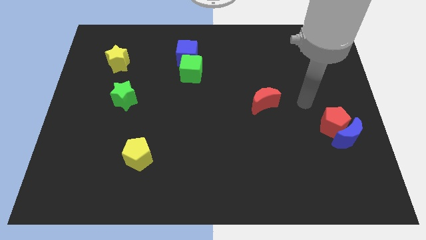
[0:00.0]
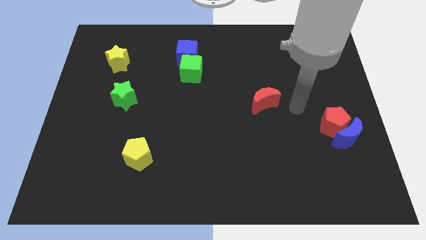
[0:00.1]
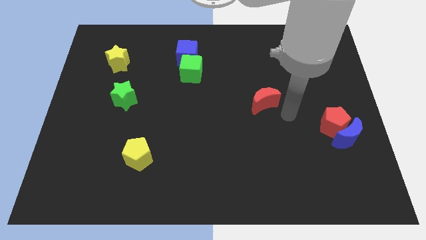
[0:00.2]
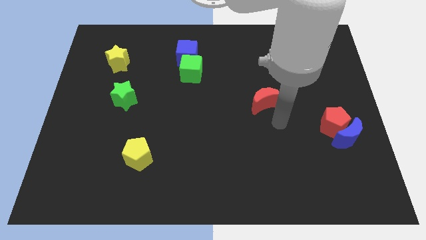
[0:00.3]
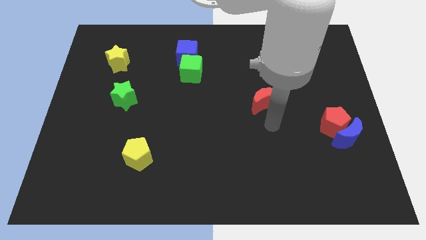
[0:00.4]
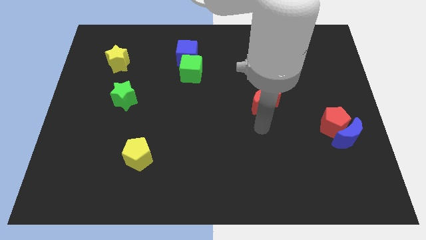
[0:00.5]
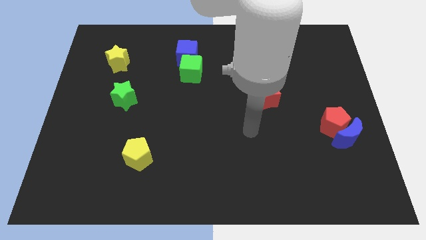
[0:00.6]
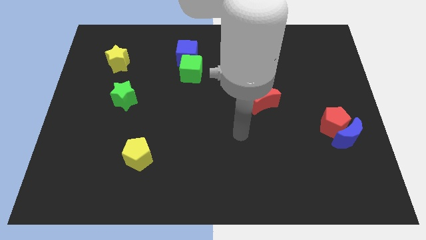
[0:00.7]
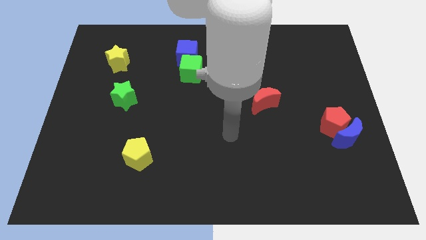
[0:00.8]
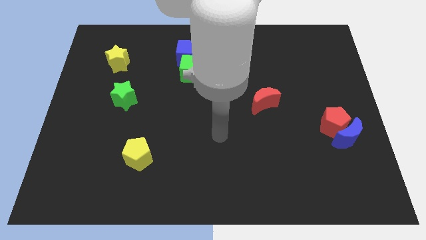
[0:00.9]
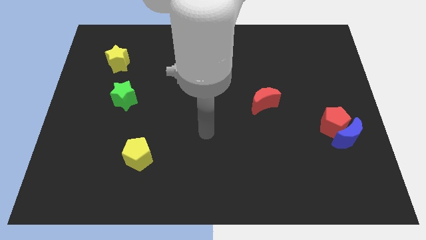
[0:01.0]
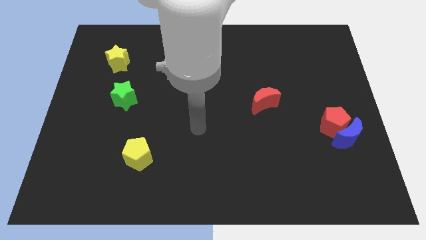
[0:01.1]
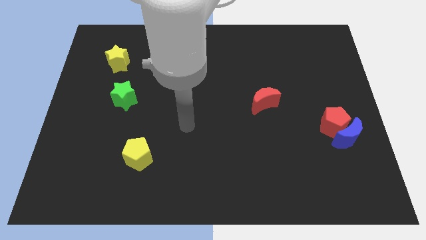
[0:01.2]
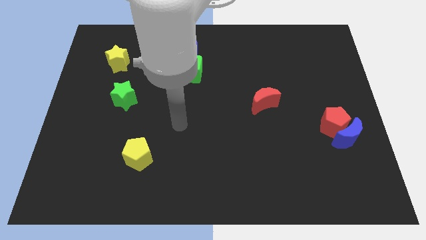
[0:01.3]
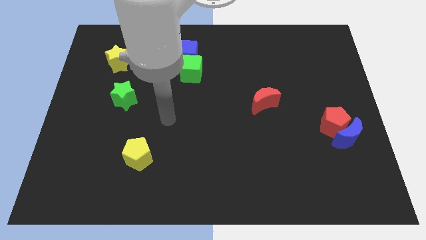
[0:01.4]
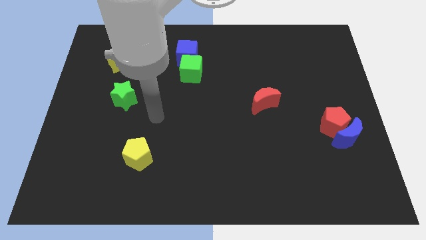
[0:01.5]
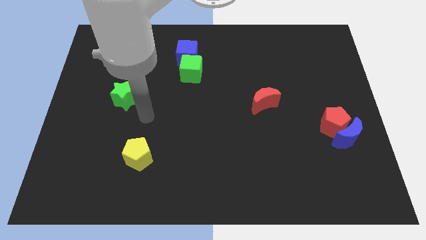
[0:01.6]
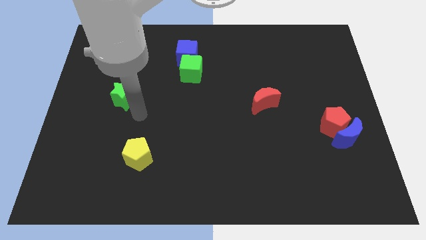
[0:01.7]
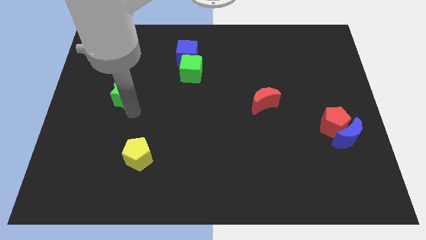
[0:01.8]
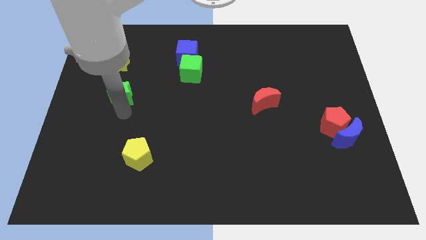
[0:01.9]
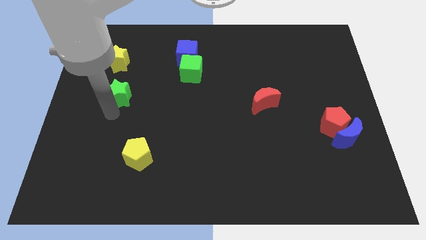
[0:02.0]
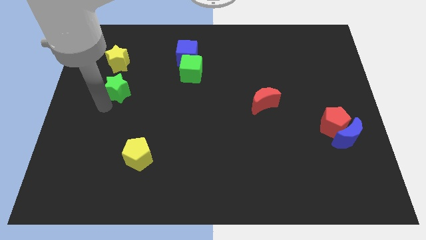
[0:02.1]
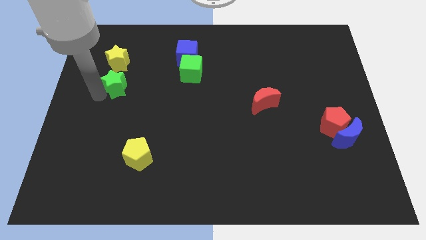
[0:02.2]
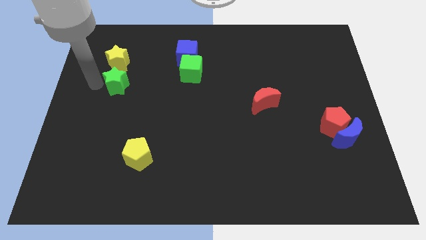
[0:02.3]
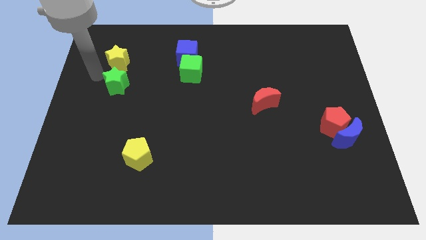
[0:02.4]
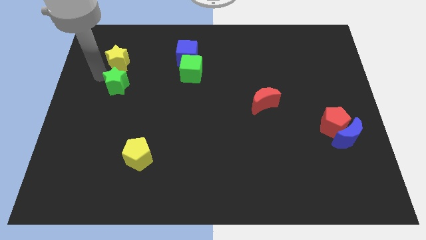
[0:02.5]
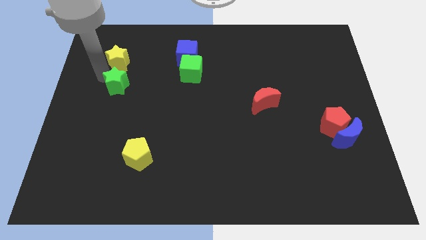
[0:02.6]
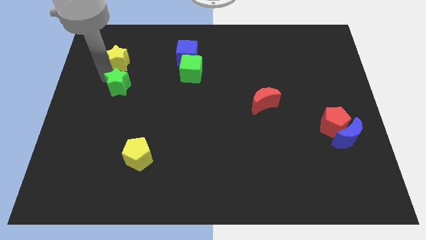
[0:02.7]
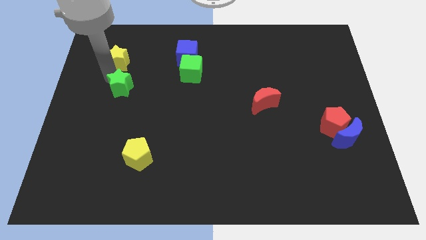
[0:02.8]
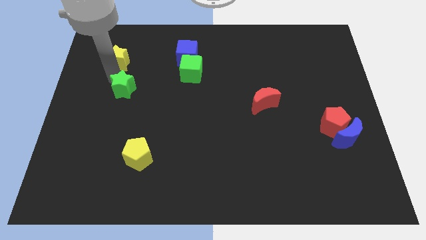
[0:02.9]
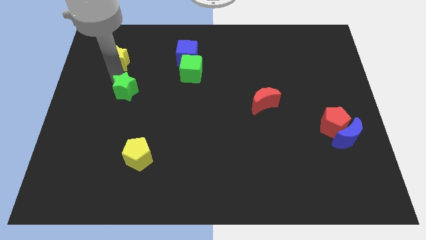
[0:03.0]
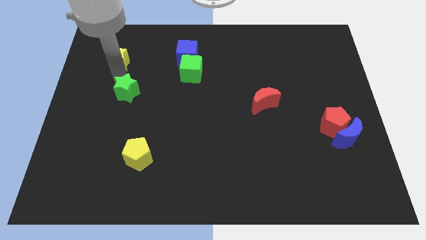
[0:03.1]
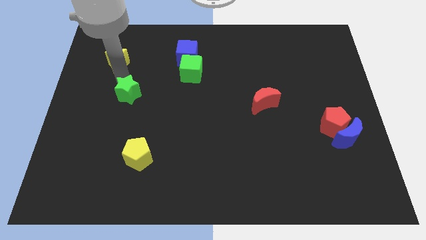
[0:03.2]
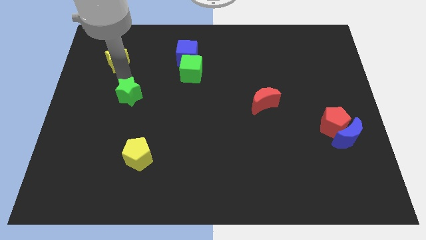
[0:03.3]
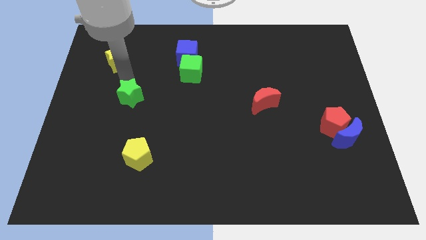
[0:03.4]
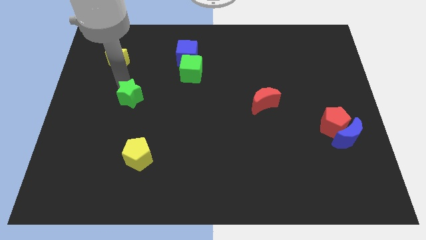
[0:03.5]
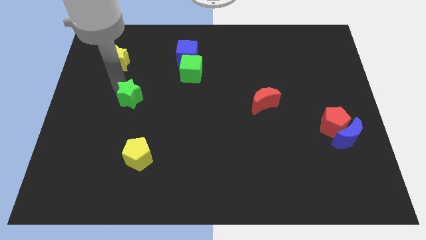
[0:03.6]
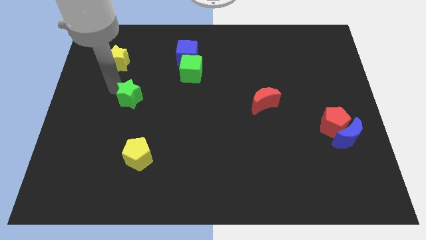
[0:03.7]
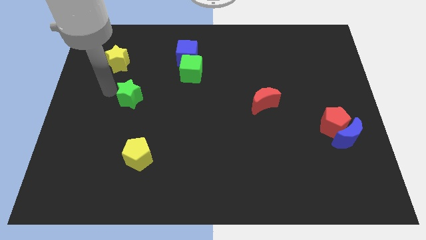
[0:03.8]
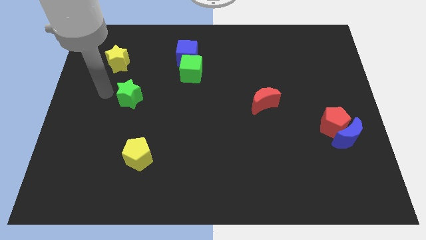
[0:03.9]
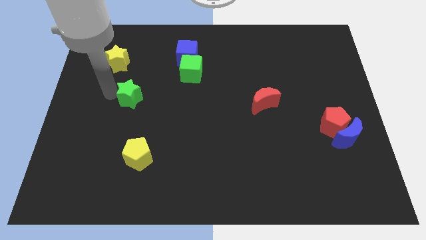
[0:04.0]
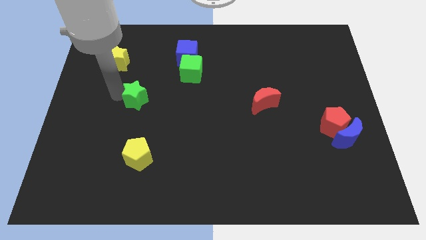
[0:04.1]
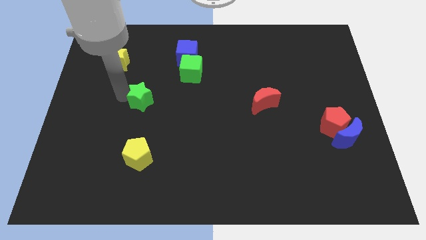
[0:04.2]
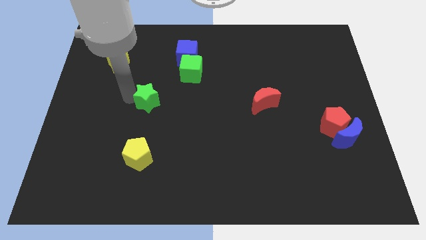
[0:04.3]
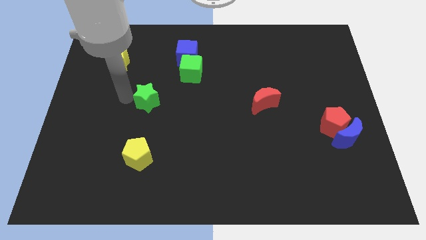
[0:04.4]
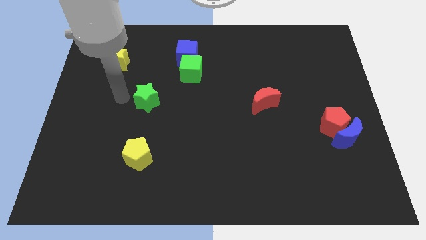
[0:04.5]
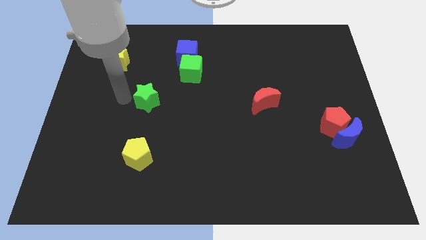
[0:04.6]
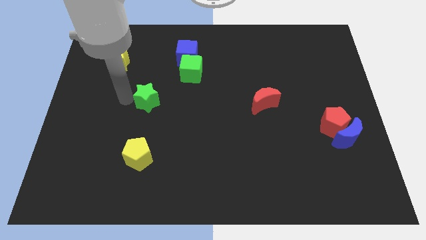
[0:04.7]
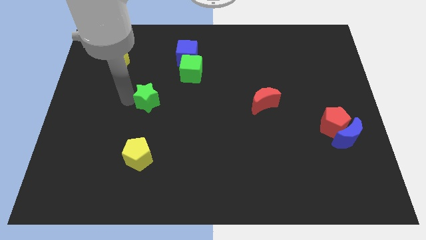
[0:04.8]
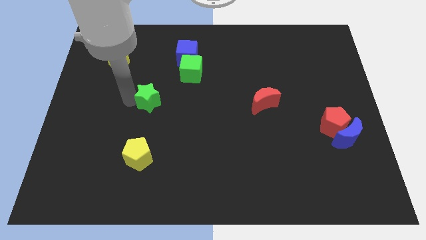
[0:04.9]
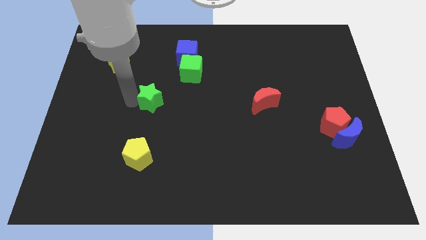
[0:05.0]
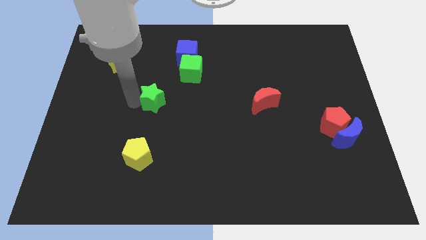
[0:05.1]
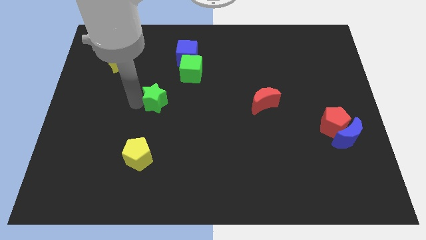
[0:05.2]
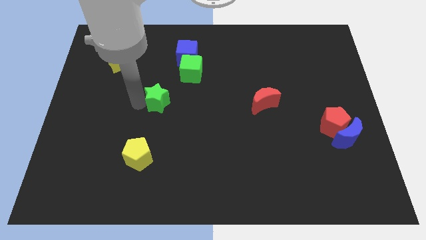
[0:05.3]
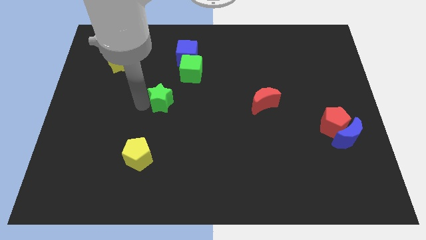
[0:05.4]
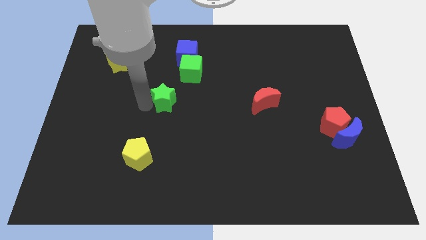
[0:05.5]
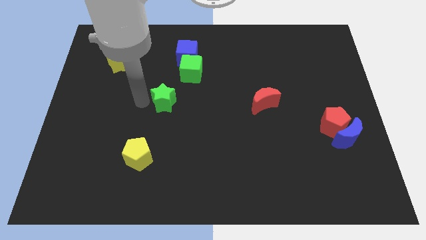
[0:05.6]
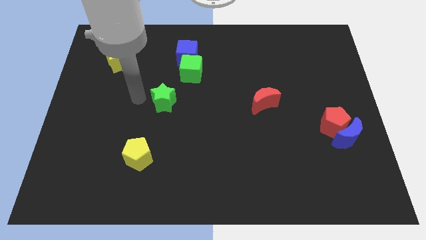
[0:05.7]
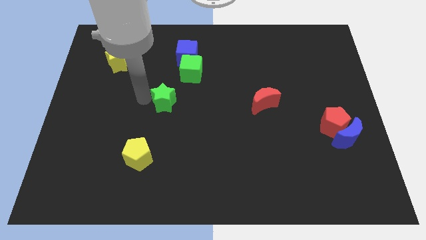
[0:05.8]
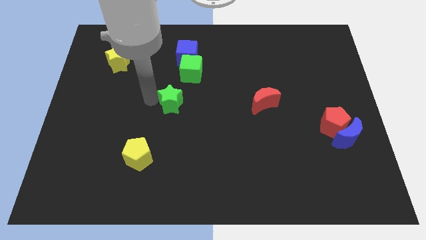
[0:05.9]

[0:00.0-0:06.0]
push the green star to the bottom side of the green cube
